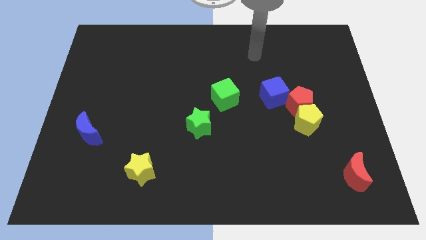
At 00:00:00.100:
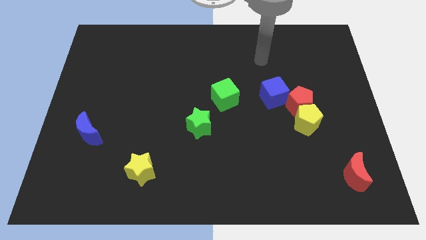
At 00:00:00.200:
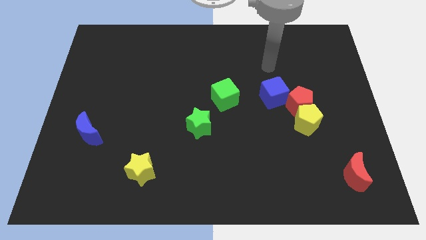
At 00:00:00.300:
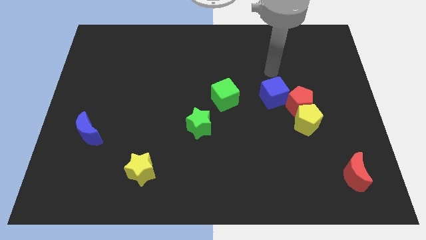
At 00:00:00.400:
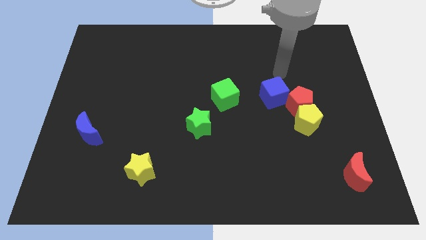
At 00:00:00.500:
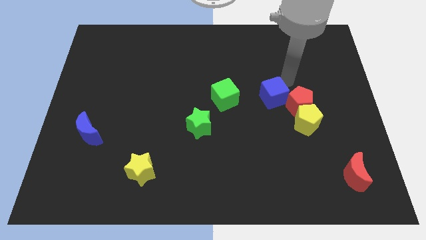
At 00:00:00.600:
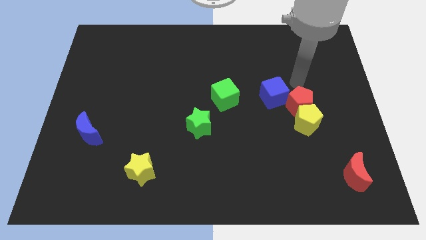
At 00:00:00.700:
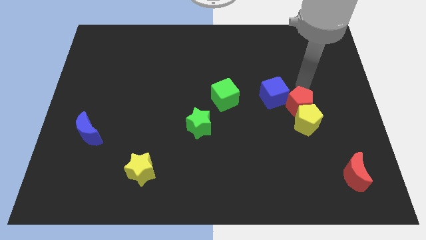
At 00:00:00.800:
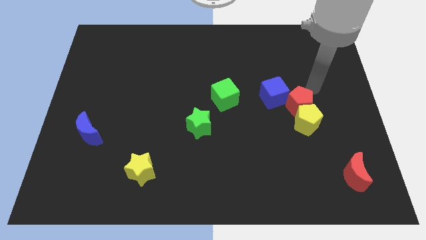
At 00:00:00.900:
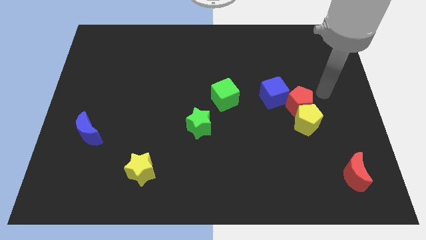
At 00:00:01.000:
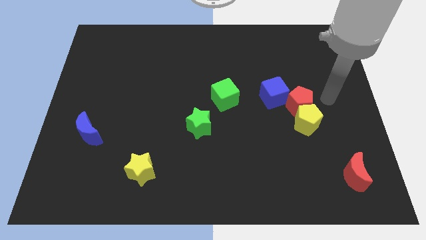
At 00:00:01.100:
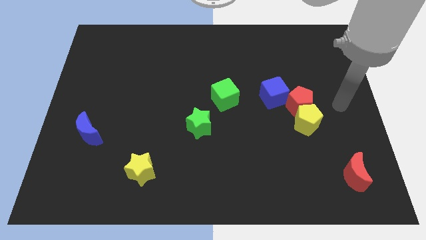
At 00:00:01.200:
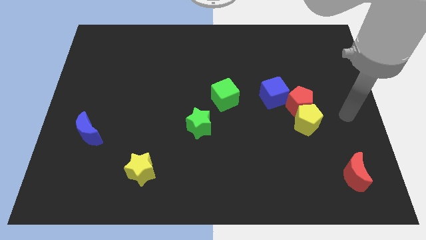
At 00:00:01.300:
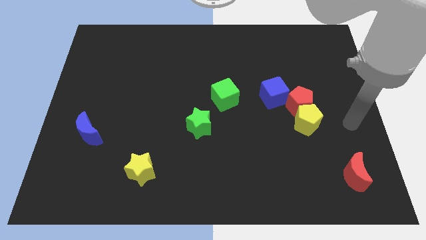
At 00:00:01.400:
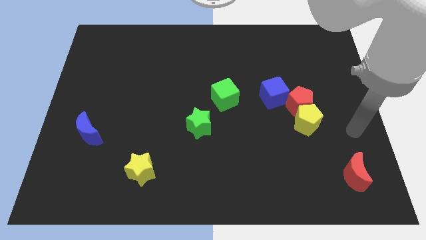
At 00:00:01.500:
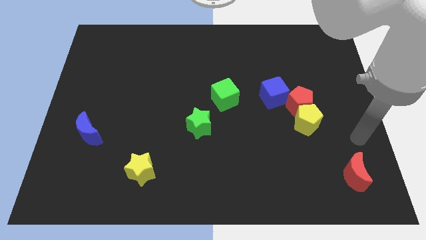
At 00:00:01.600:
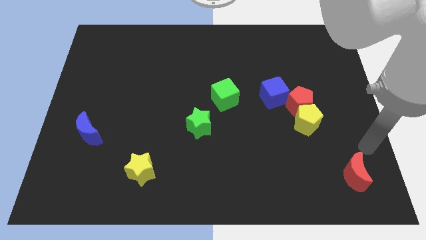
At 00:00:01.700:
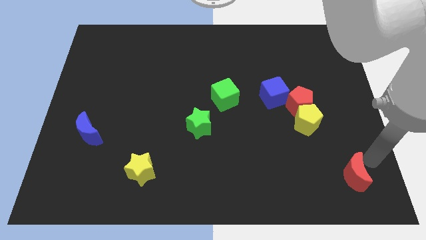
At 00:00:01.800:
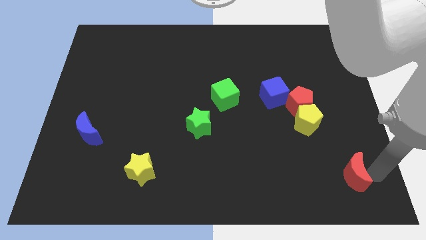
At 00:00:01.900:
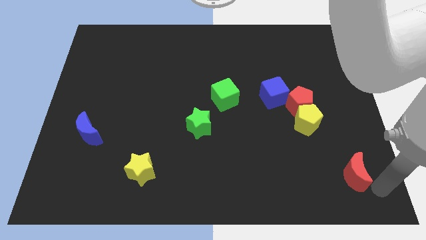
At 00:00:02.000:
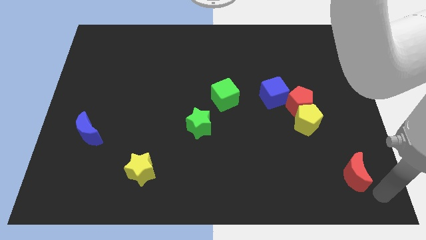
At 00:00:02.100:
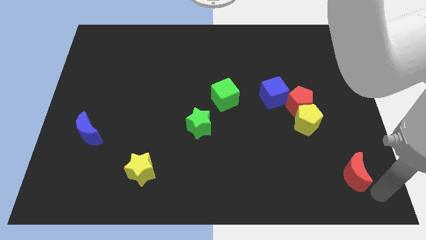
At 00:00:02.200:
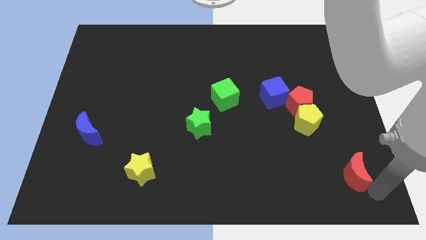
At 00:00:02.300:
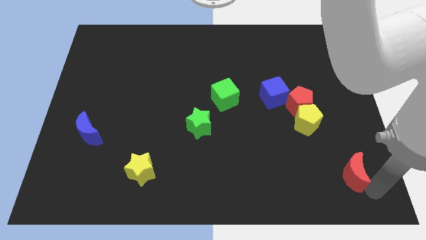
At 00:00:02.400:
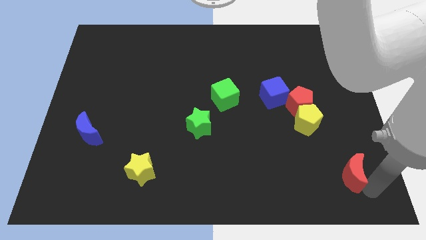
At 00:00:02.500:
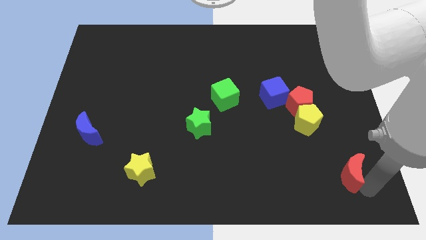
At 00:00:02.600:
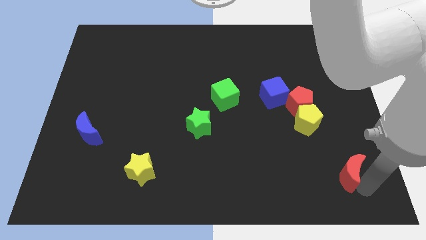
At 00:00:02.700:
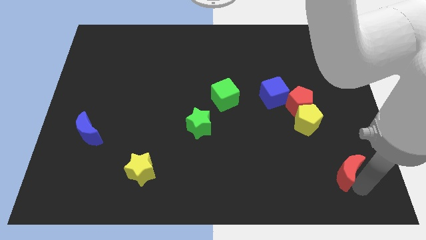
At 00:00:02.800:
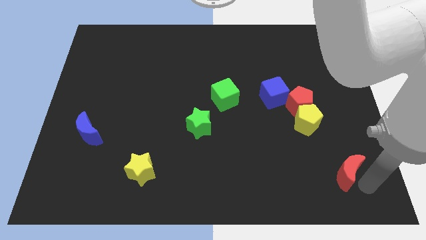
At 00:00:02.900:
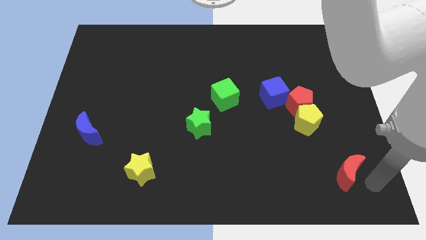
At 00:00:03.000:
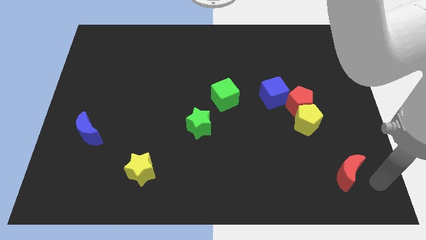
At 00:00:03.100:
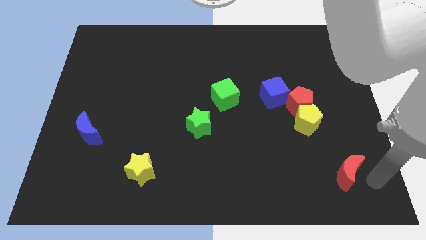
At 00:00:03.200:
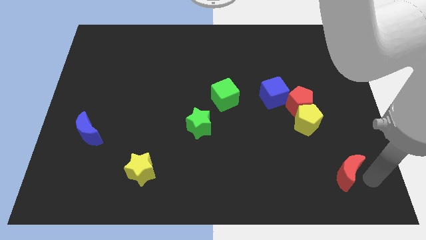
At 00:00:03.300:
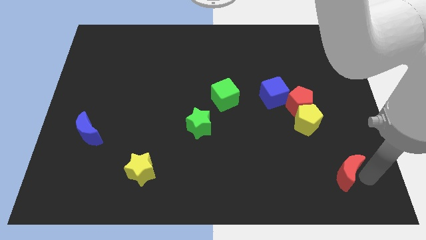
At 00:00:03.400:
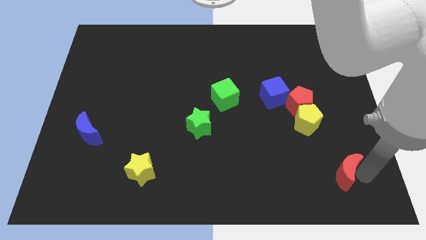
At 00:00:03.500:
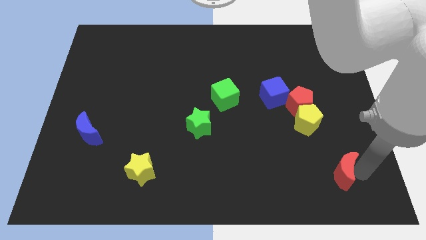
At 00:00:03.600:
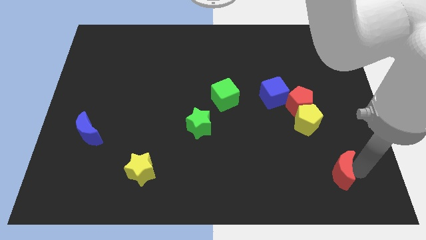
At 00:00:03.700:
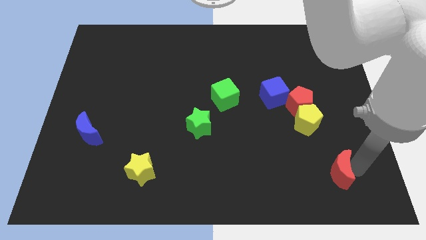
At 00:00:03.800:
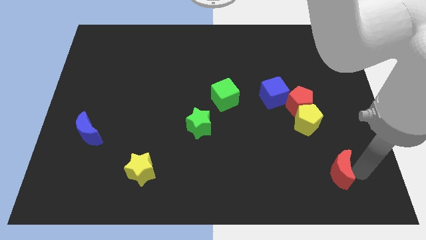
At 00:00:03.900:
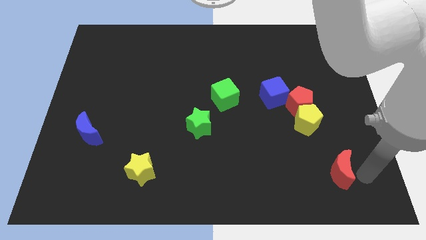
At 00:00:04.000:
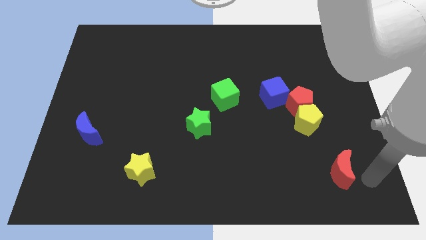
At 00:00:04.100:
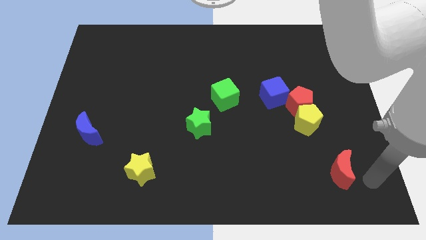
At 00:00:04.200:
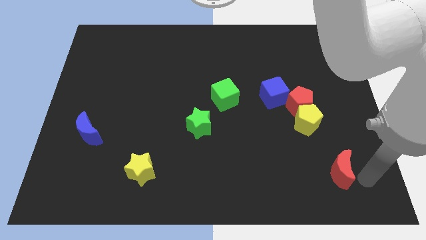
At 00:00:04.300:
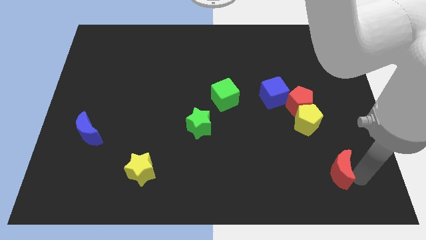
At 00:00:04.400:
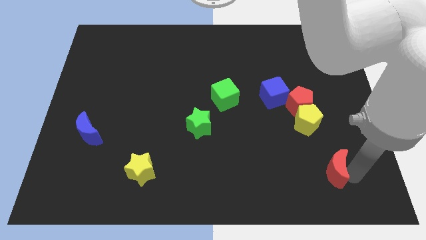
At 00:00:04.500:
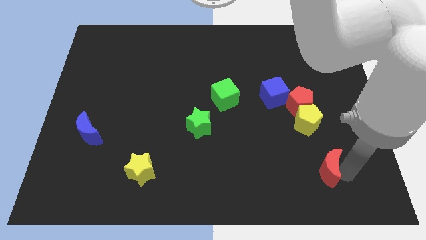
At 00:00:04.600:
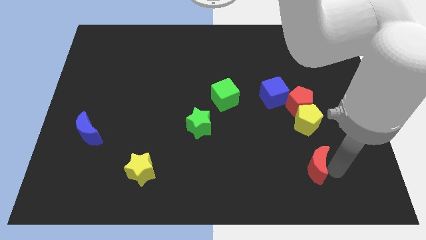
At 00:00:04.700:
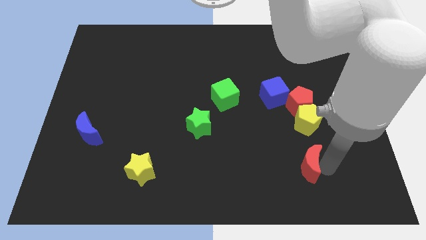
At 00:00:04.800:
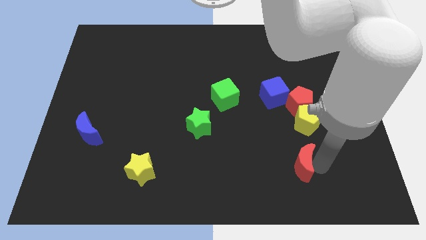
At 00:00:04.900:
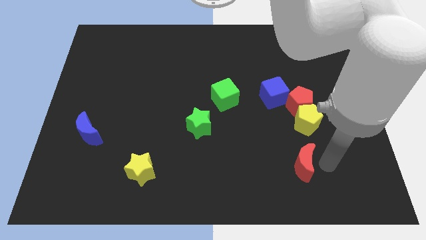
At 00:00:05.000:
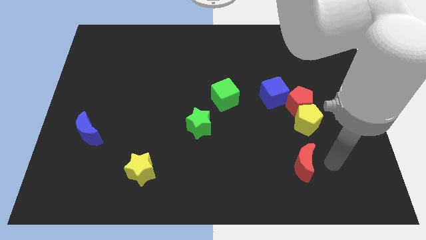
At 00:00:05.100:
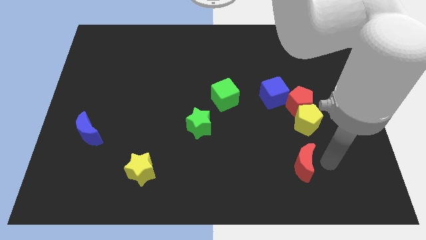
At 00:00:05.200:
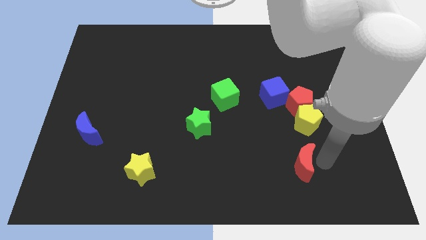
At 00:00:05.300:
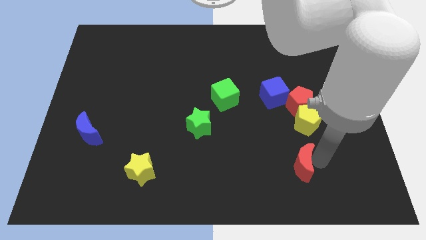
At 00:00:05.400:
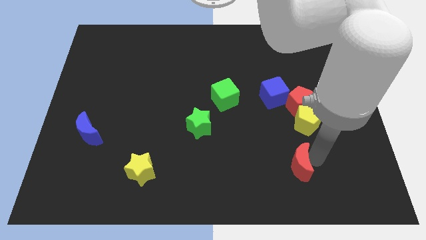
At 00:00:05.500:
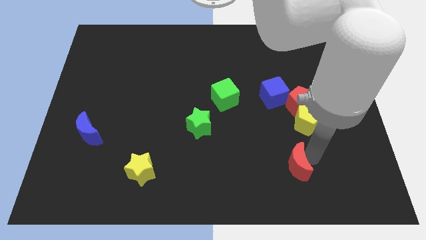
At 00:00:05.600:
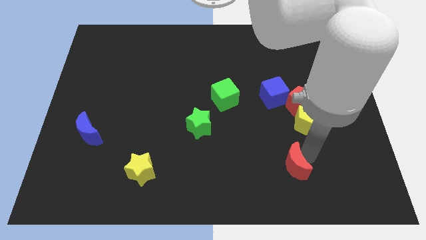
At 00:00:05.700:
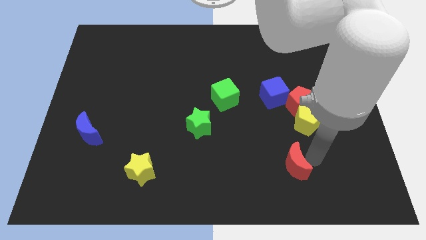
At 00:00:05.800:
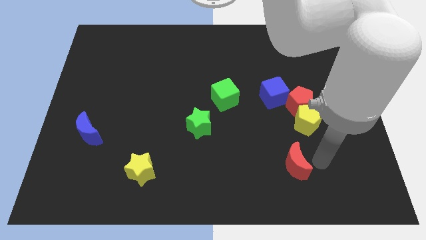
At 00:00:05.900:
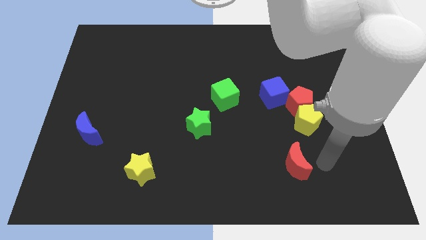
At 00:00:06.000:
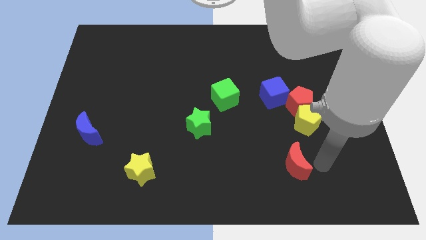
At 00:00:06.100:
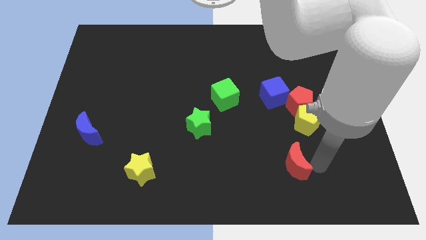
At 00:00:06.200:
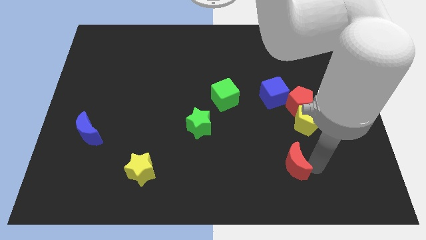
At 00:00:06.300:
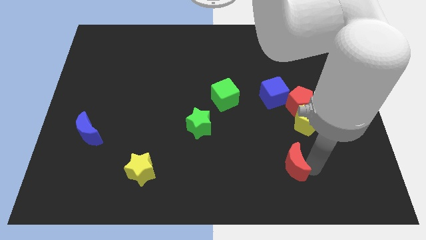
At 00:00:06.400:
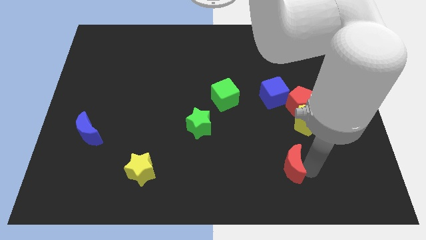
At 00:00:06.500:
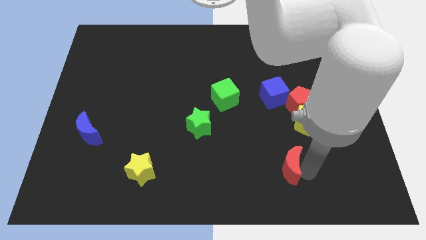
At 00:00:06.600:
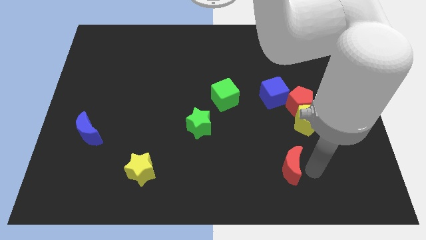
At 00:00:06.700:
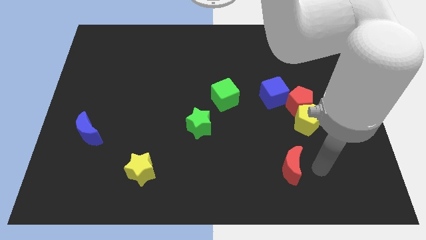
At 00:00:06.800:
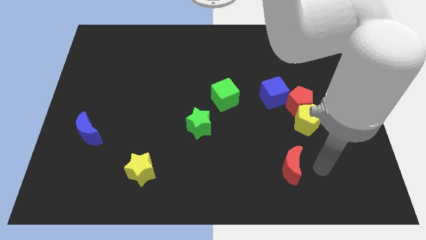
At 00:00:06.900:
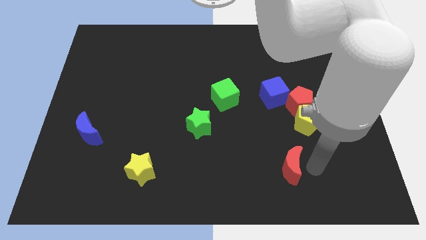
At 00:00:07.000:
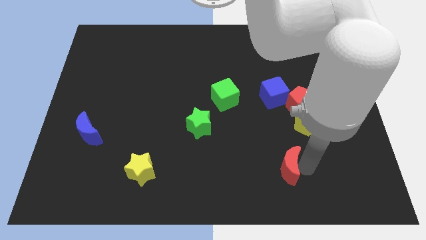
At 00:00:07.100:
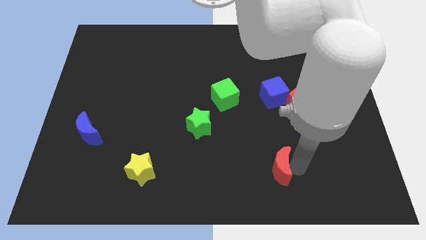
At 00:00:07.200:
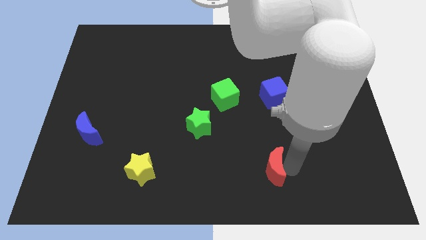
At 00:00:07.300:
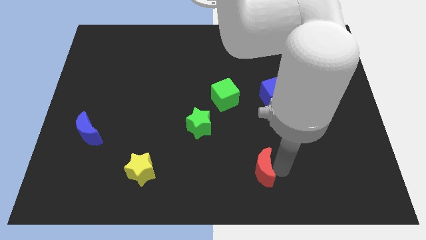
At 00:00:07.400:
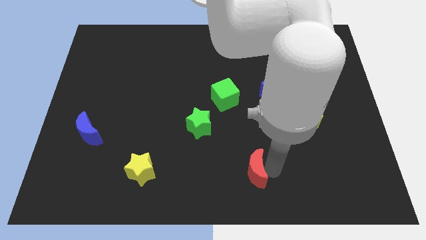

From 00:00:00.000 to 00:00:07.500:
push the red moon to the left
